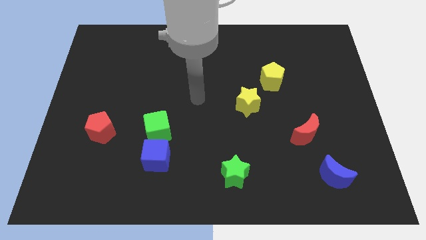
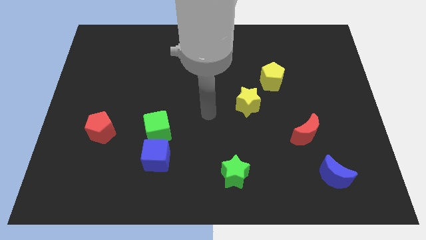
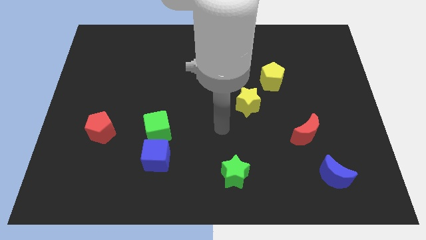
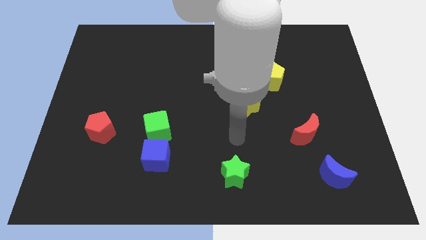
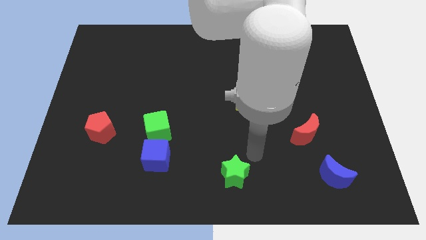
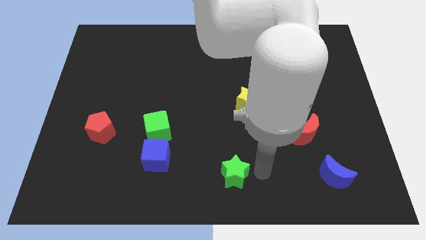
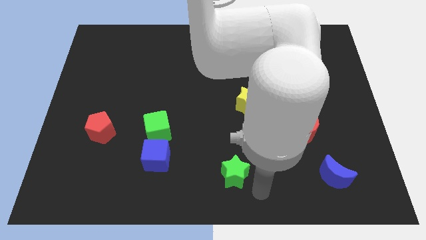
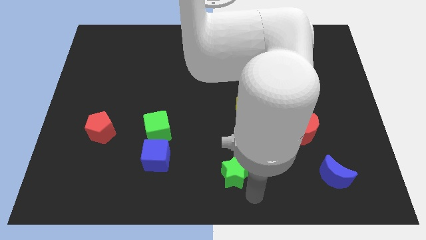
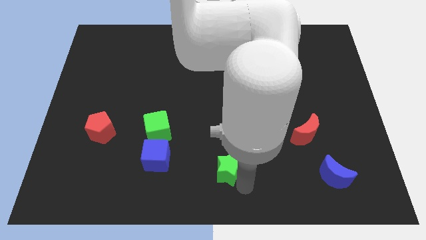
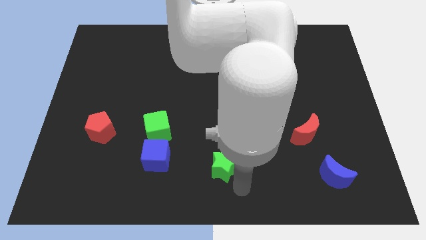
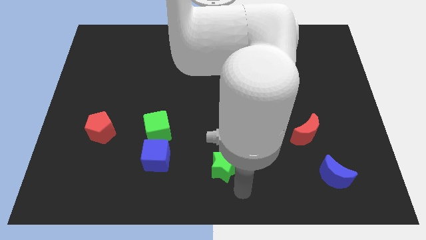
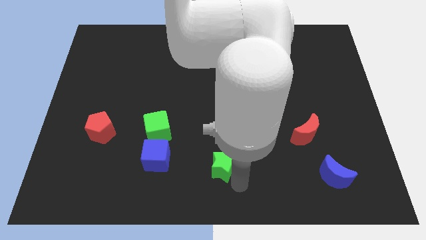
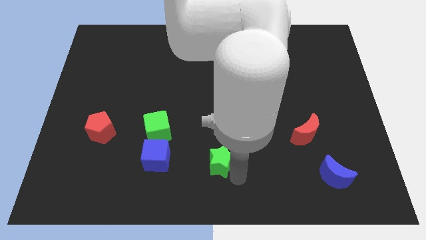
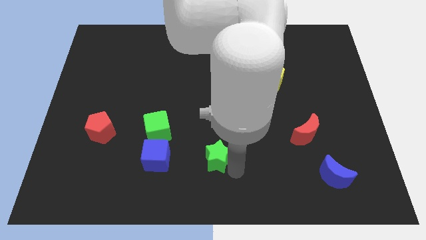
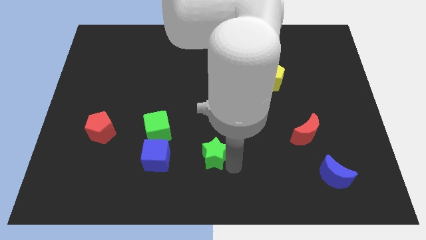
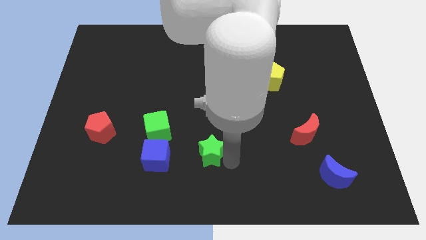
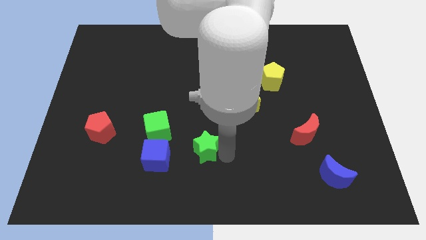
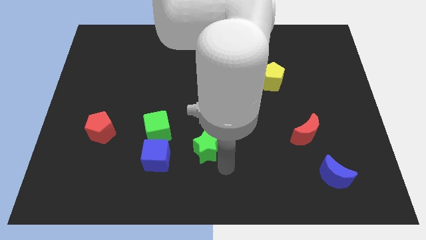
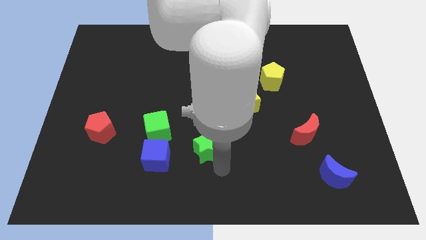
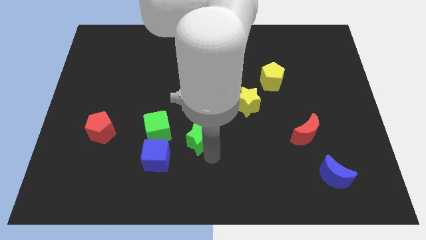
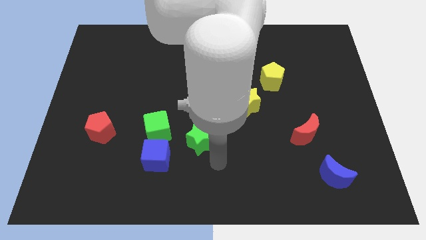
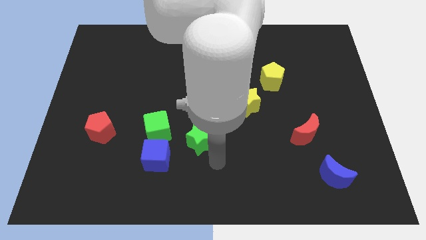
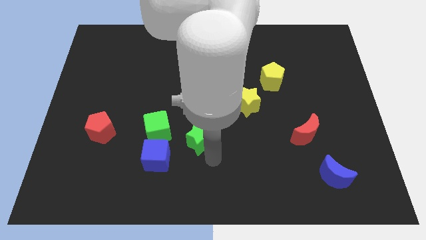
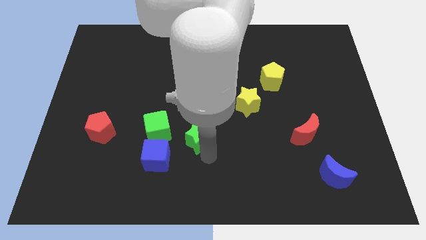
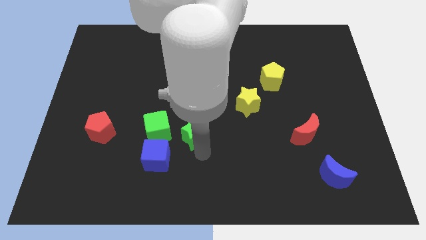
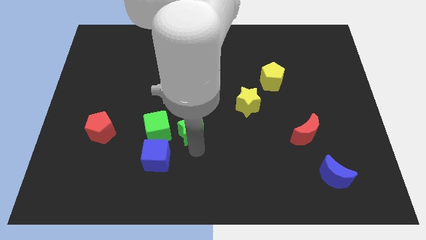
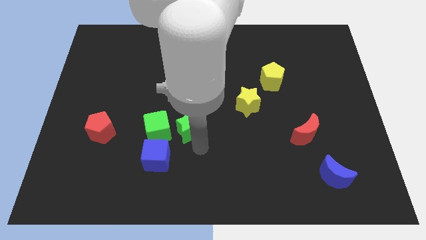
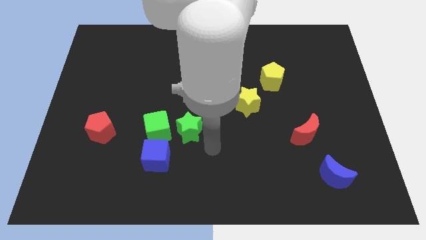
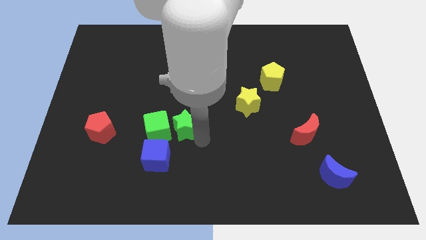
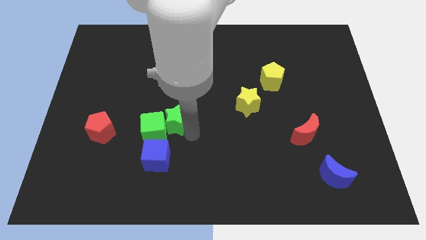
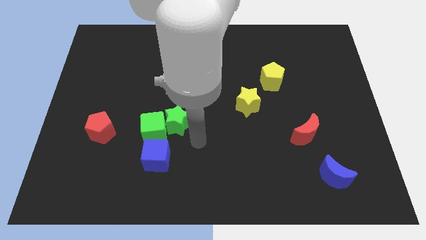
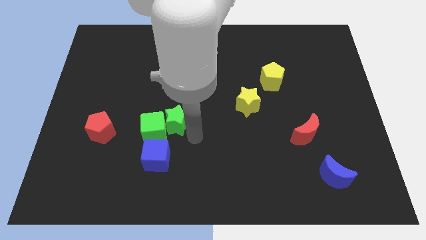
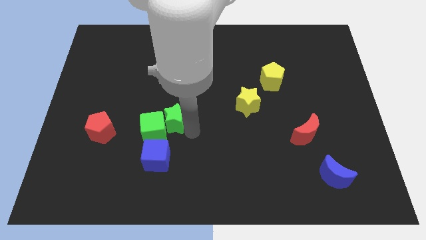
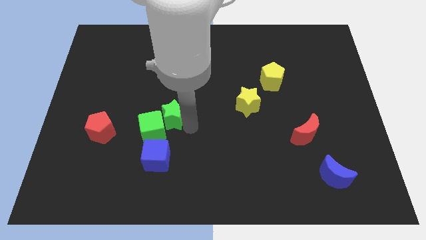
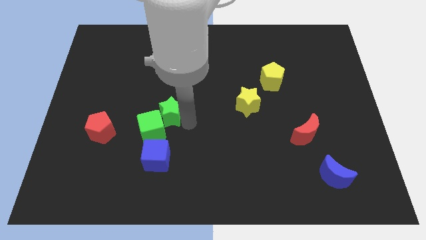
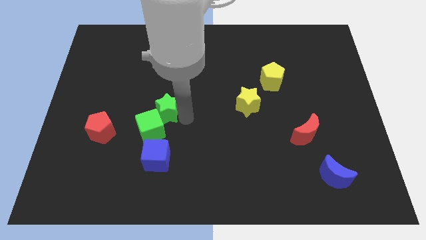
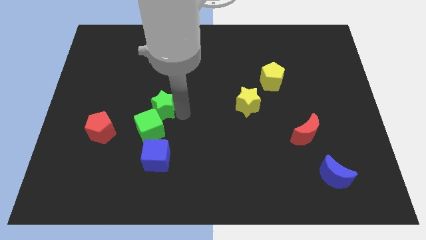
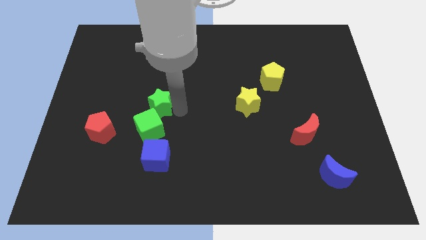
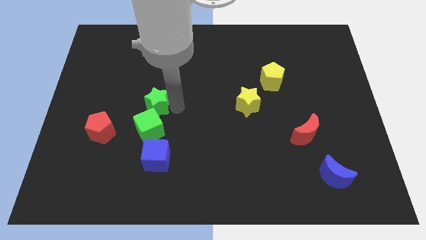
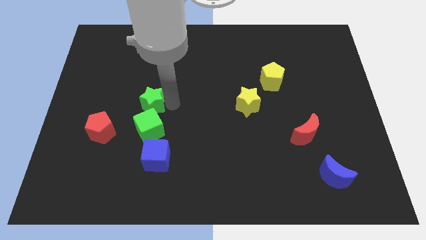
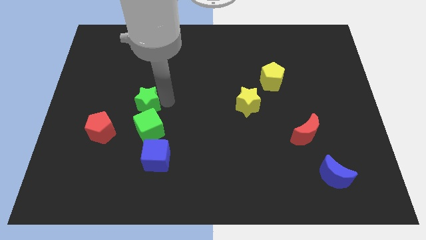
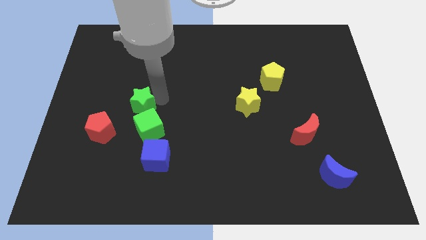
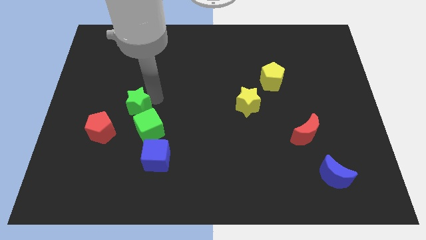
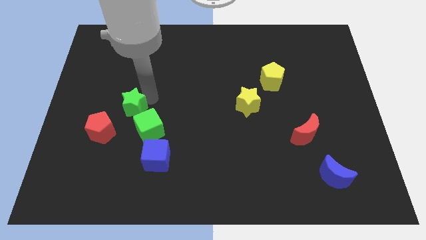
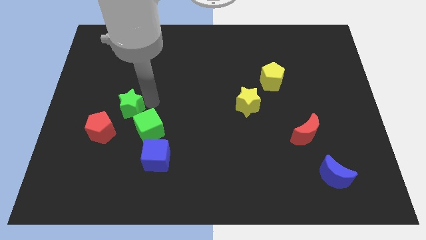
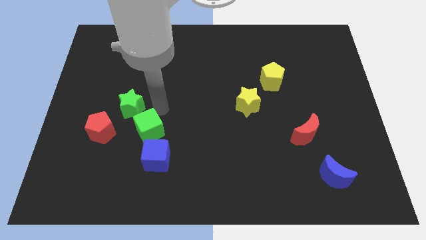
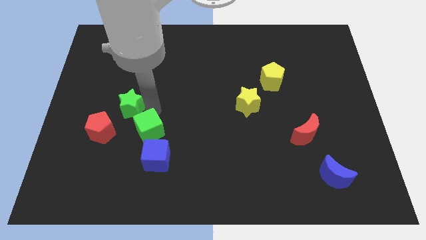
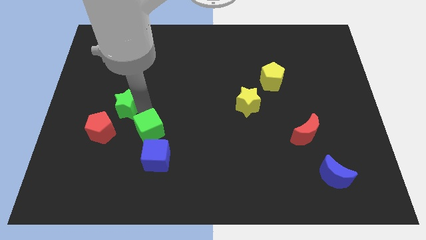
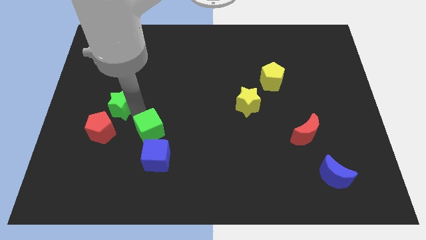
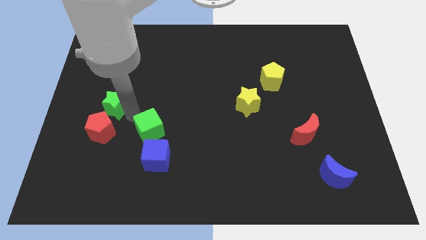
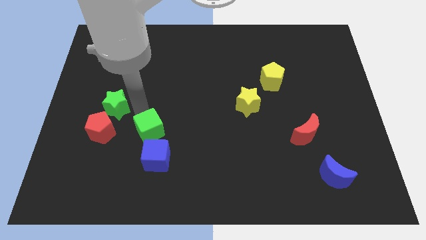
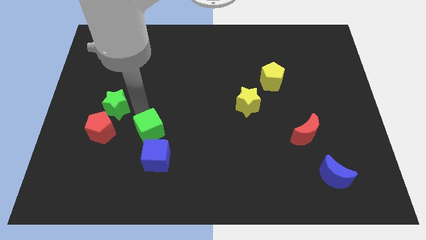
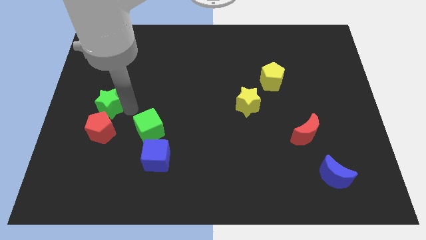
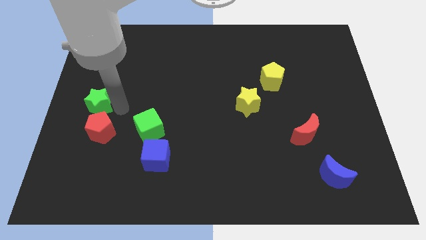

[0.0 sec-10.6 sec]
slide the green star to the left side

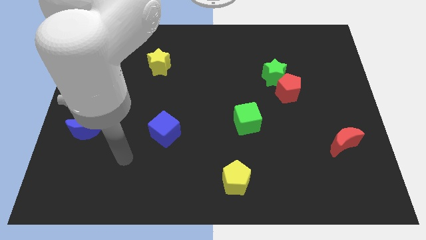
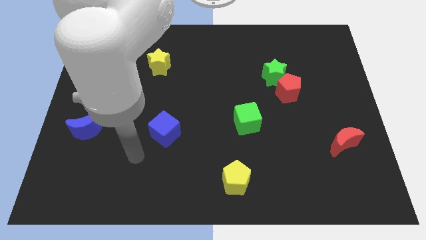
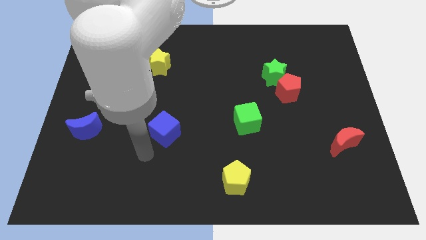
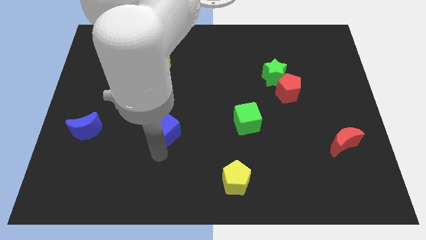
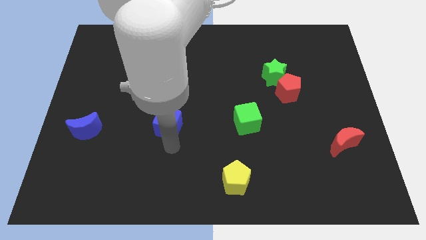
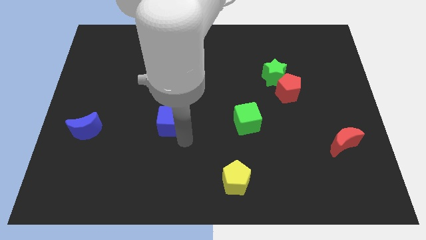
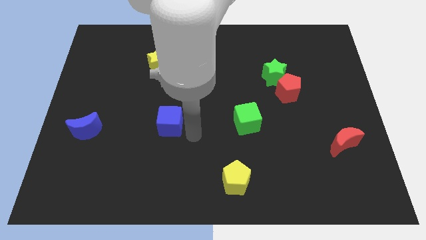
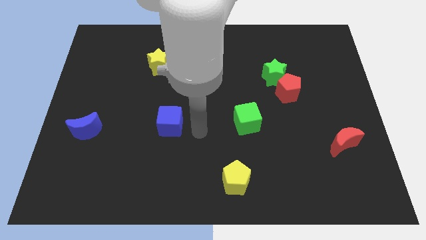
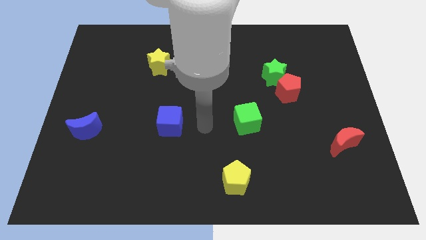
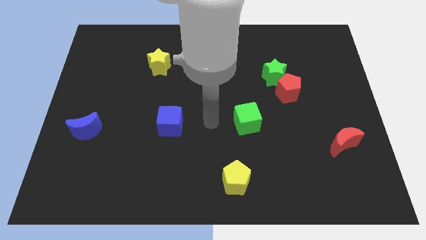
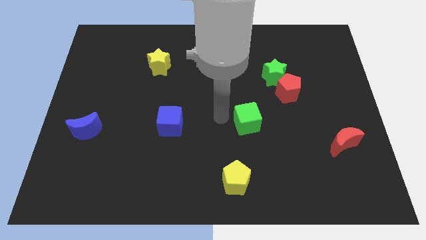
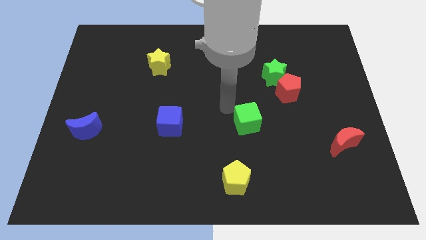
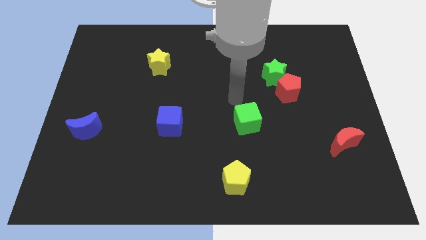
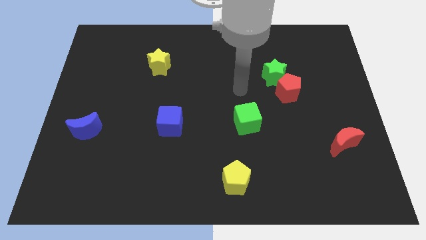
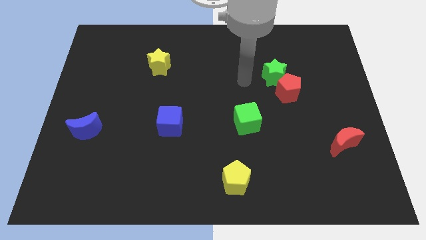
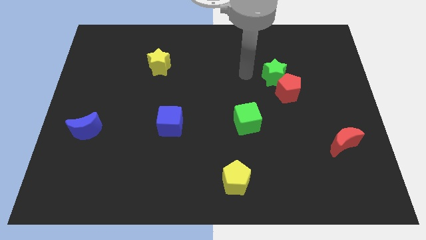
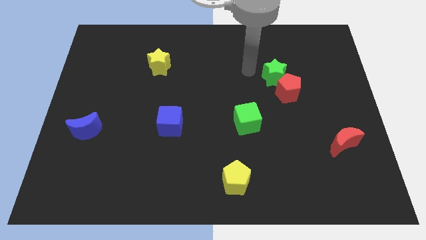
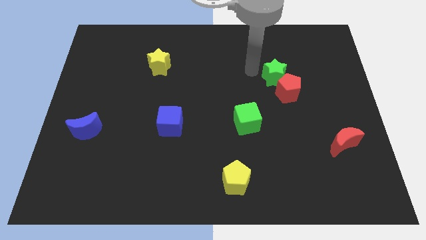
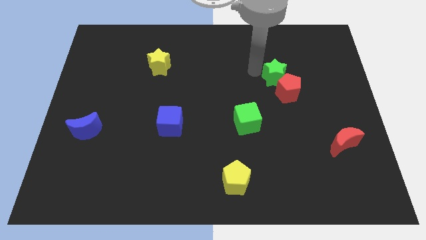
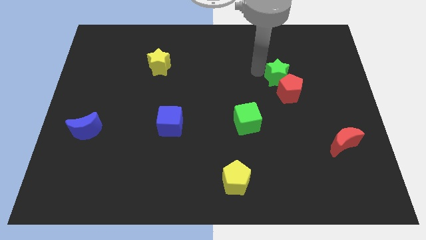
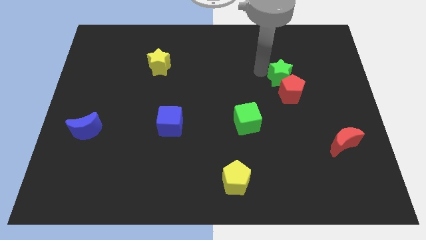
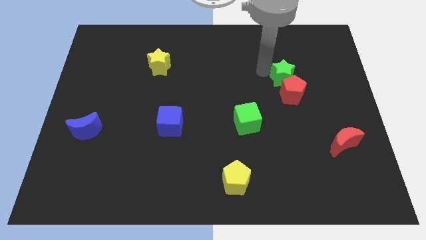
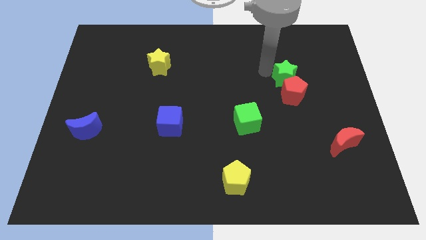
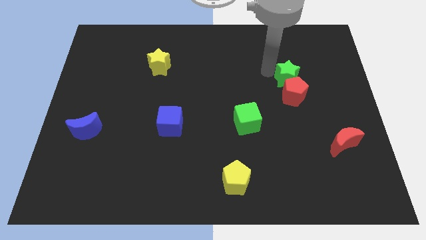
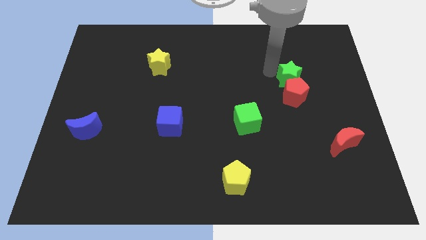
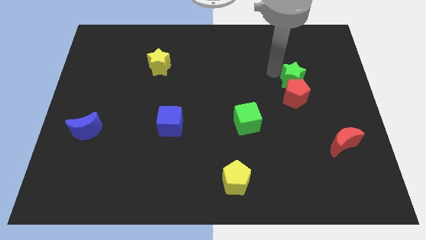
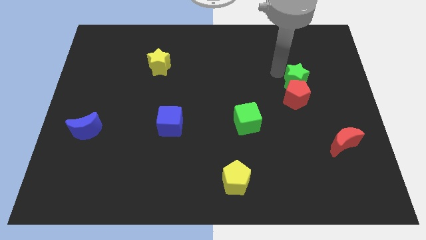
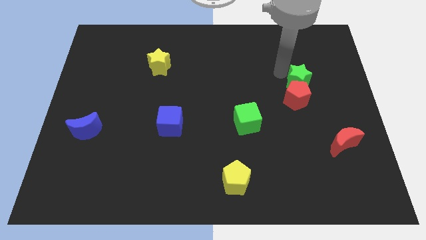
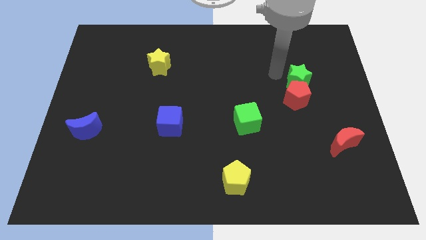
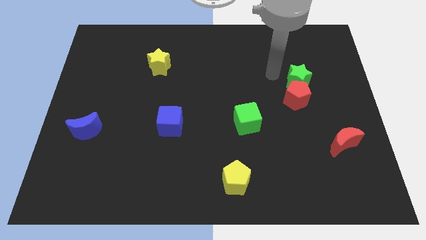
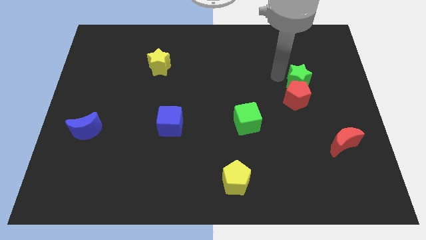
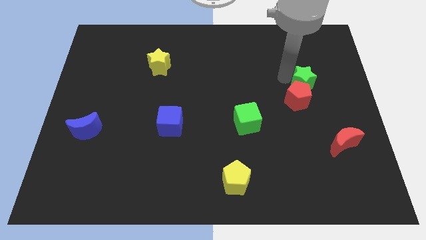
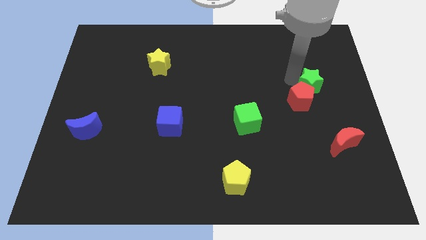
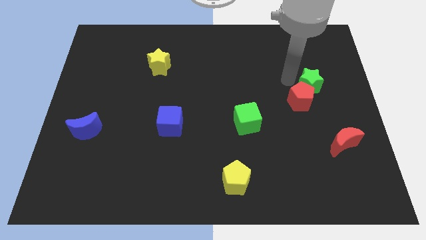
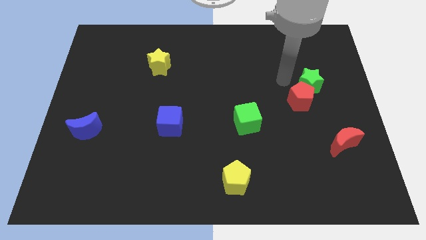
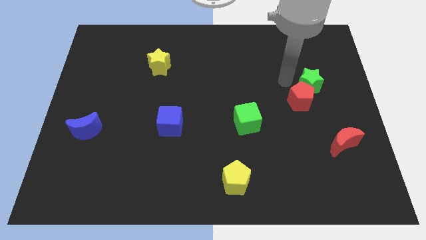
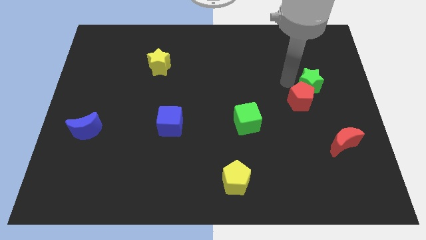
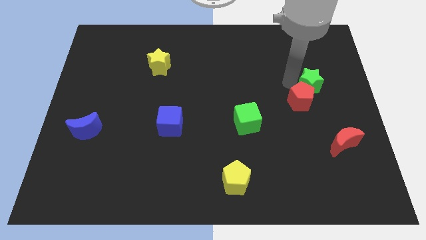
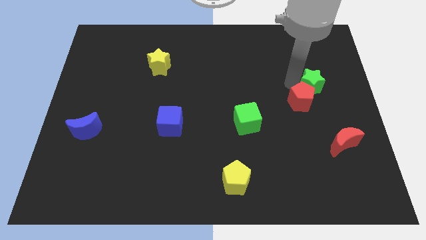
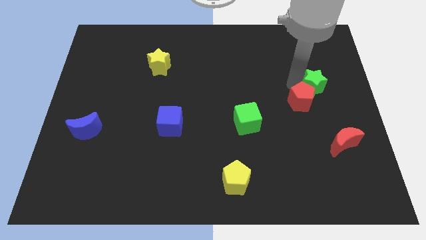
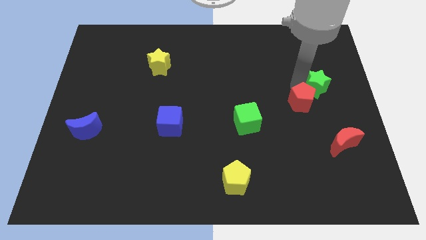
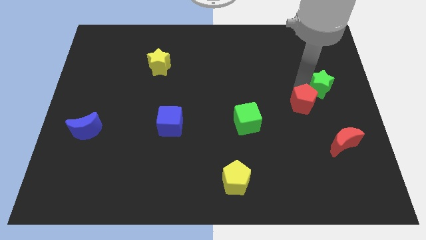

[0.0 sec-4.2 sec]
put the green star to the right side of the board
